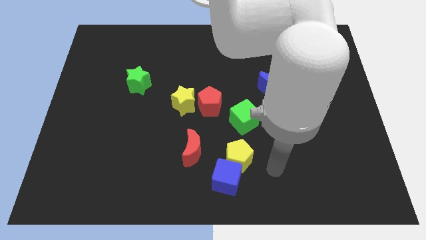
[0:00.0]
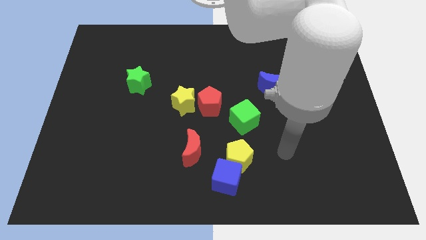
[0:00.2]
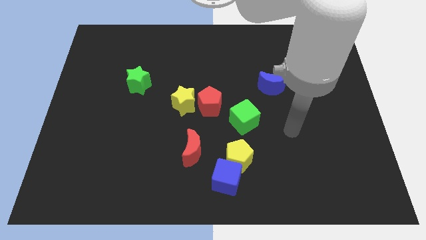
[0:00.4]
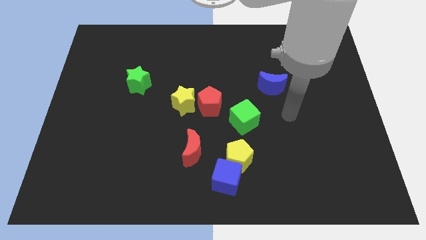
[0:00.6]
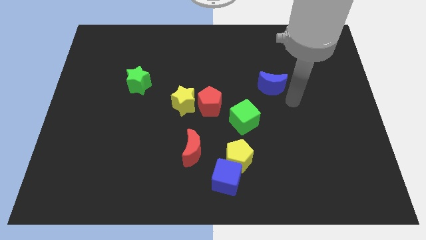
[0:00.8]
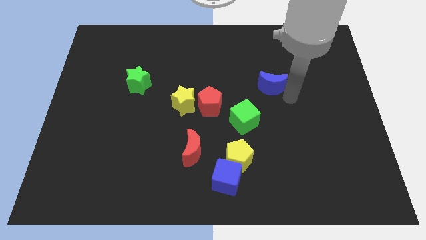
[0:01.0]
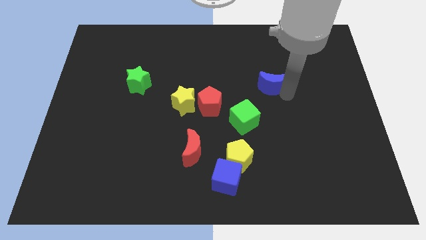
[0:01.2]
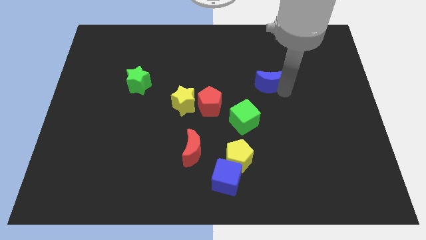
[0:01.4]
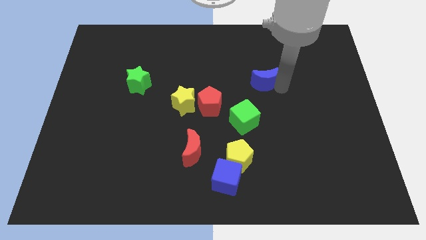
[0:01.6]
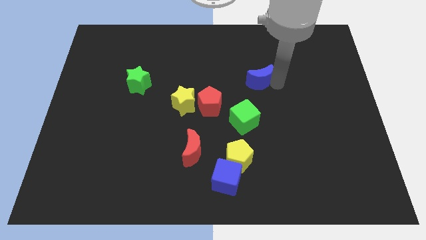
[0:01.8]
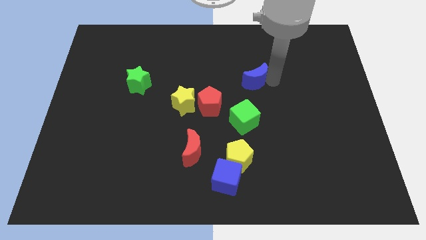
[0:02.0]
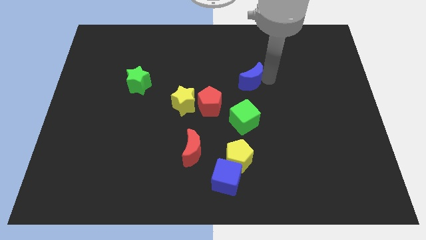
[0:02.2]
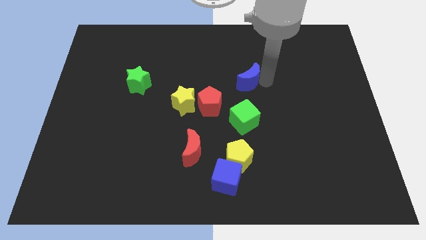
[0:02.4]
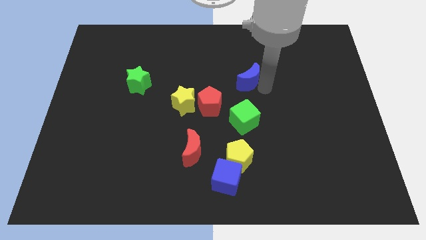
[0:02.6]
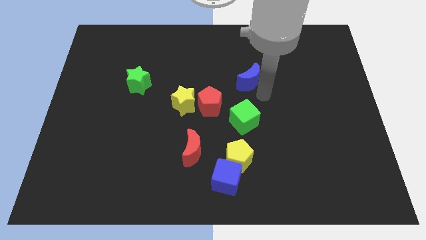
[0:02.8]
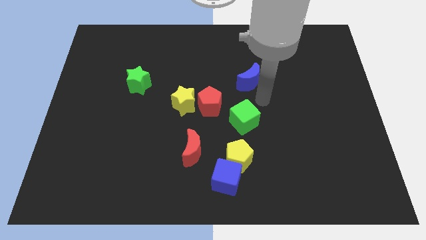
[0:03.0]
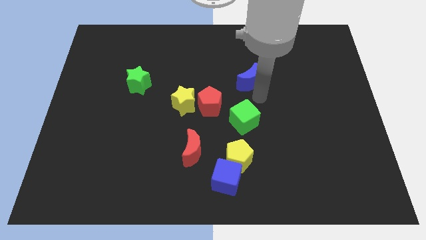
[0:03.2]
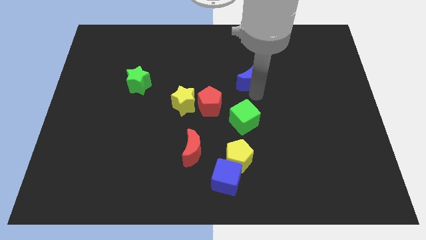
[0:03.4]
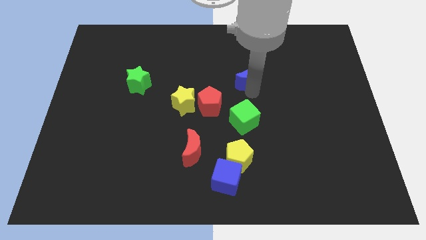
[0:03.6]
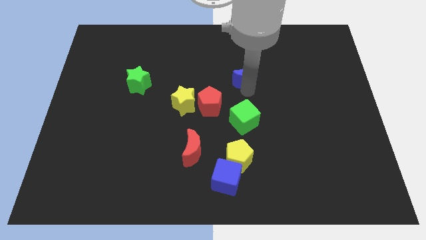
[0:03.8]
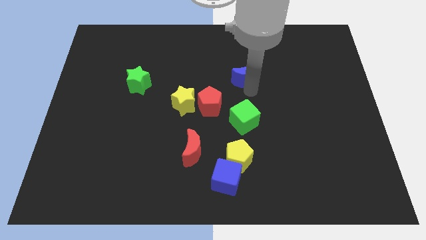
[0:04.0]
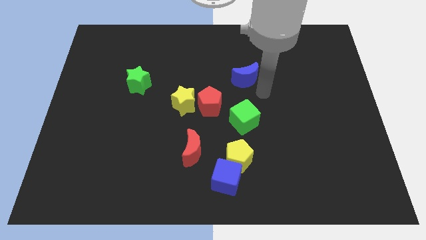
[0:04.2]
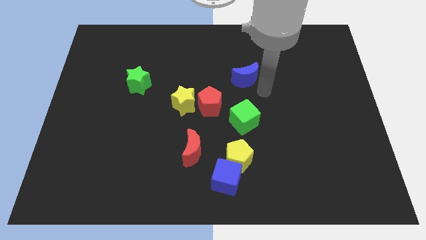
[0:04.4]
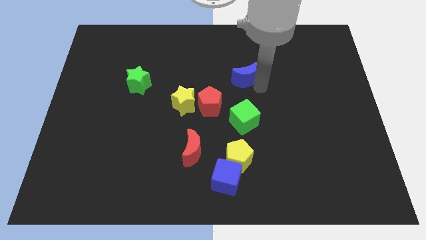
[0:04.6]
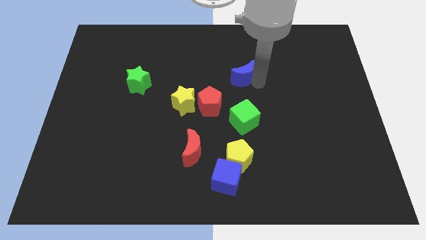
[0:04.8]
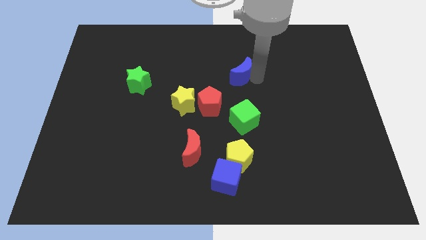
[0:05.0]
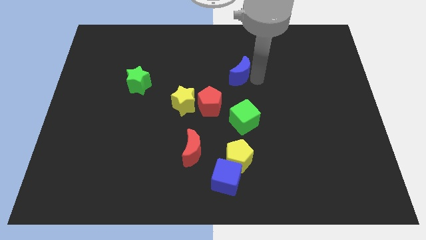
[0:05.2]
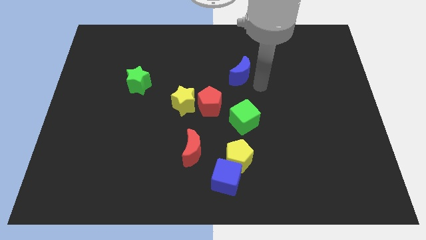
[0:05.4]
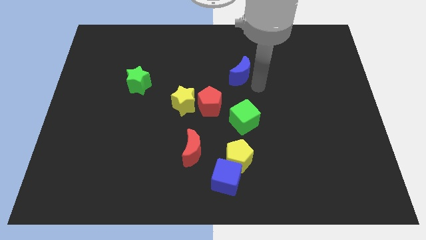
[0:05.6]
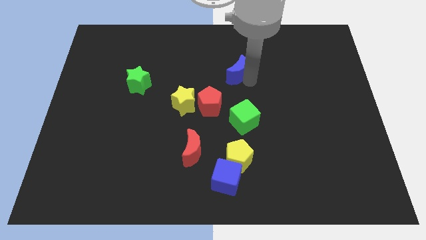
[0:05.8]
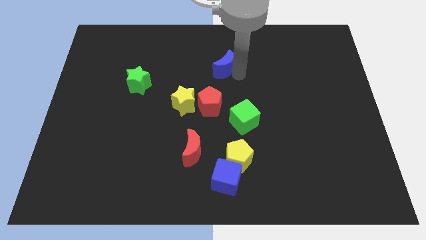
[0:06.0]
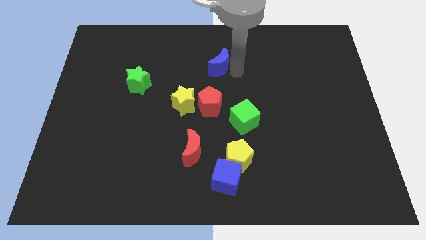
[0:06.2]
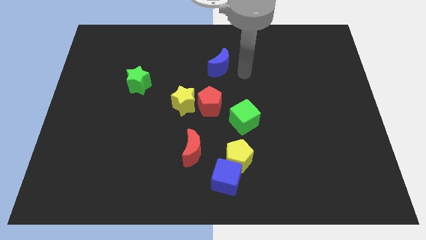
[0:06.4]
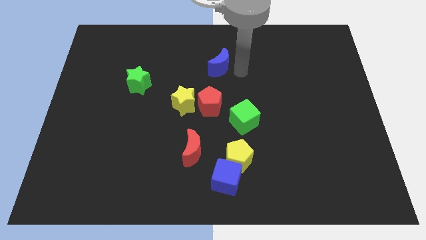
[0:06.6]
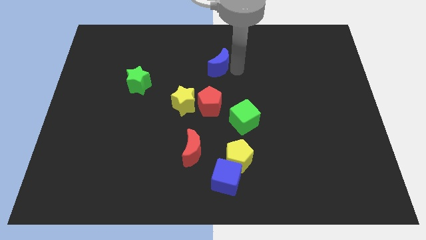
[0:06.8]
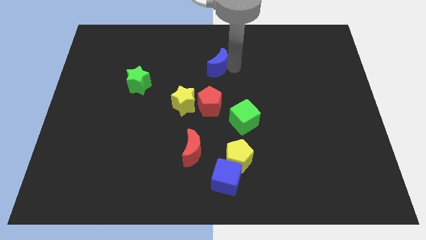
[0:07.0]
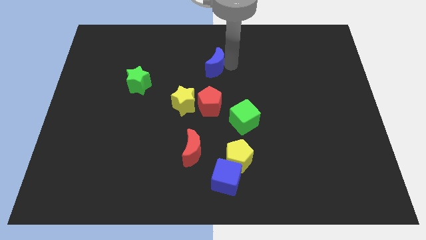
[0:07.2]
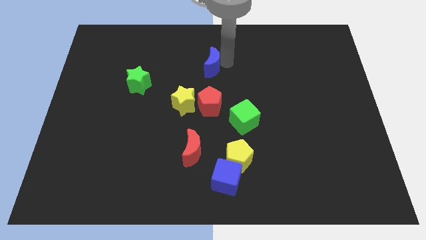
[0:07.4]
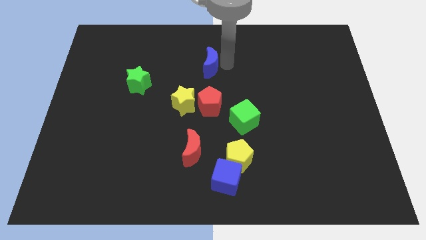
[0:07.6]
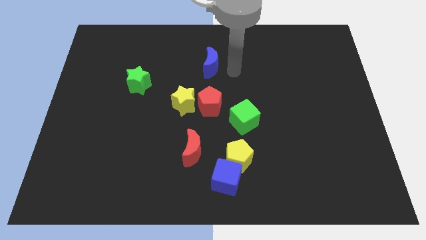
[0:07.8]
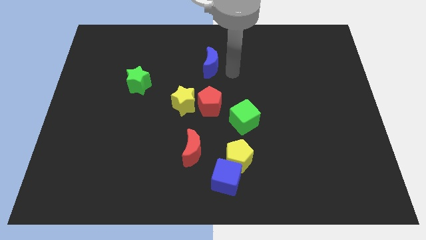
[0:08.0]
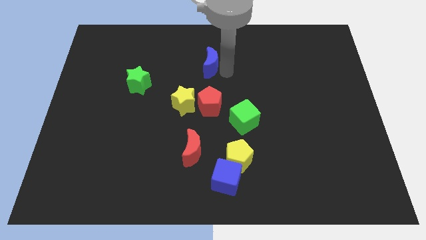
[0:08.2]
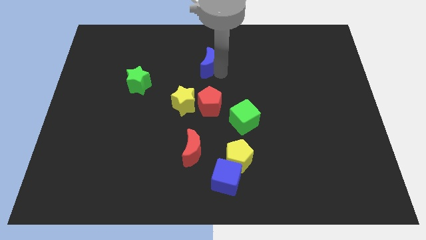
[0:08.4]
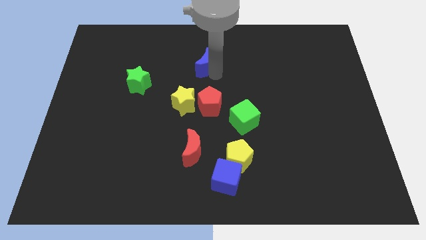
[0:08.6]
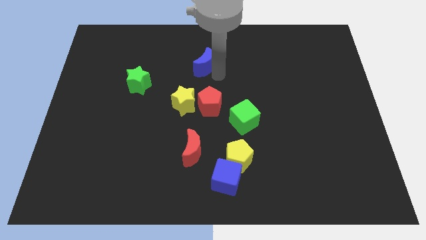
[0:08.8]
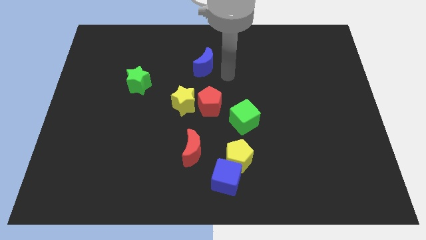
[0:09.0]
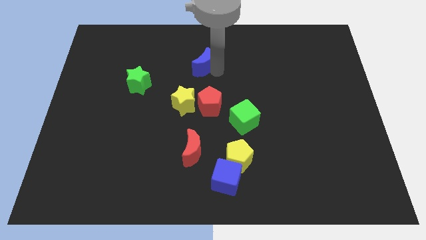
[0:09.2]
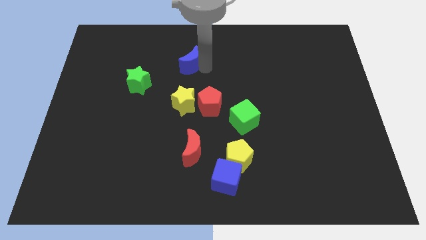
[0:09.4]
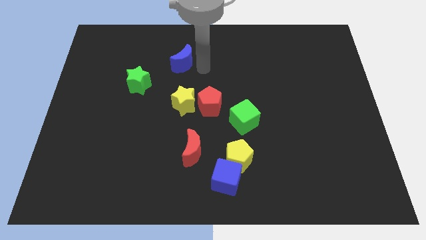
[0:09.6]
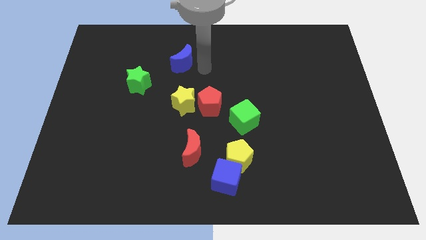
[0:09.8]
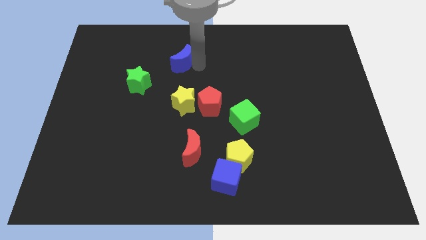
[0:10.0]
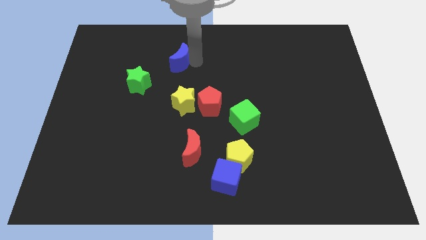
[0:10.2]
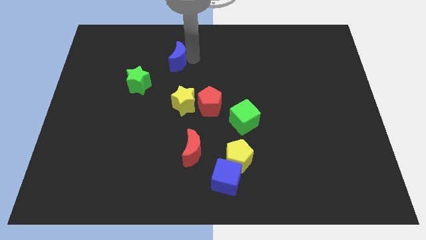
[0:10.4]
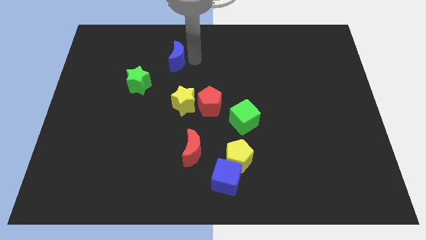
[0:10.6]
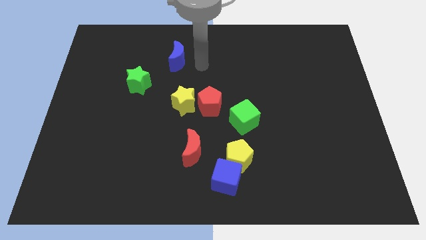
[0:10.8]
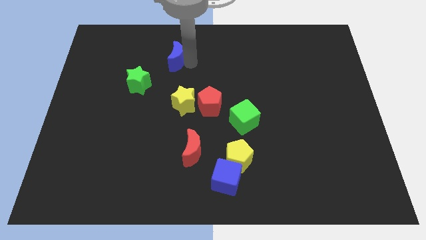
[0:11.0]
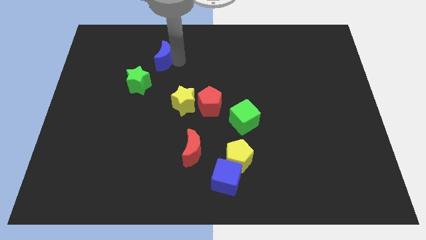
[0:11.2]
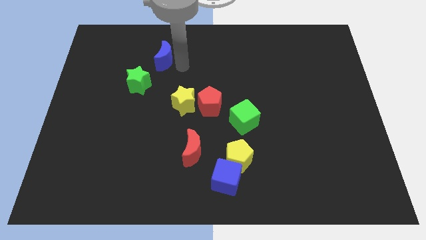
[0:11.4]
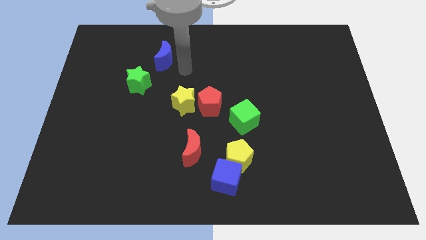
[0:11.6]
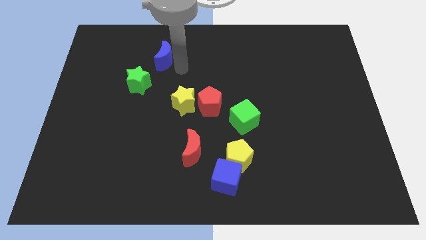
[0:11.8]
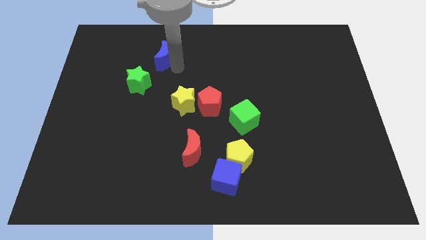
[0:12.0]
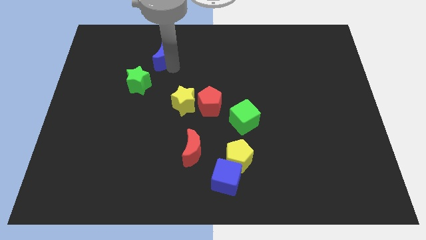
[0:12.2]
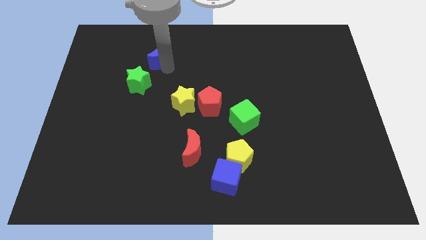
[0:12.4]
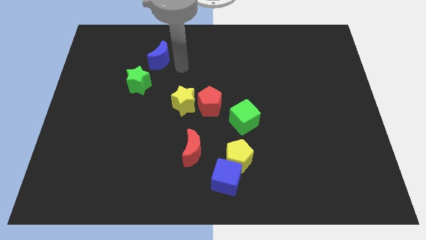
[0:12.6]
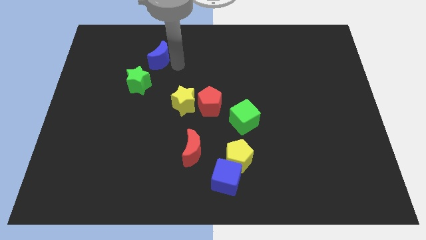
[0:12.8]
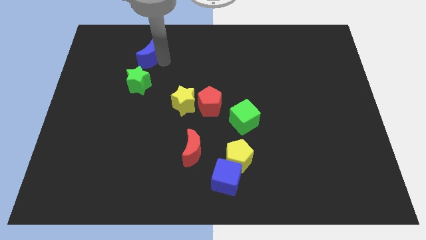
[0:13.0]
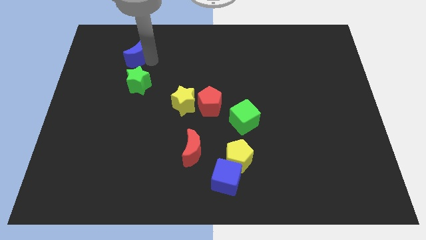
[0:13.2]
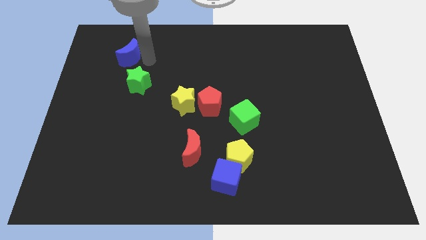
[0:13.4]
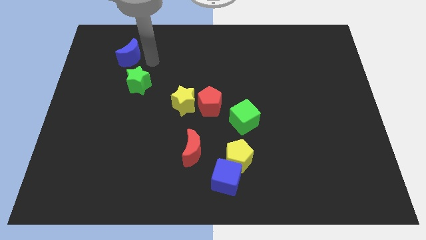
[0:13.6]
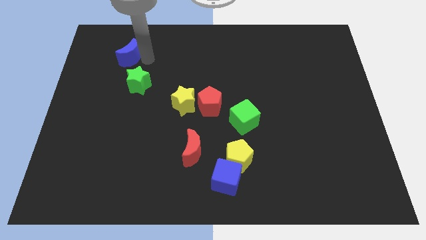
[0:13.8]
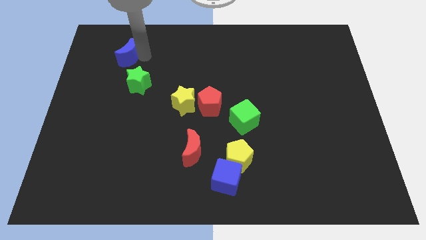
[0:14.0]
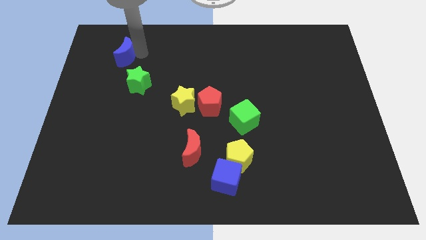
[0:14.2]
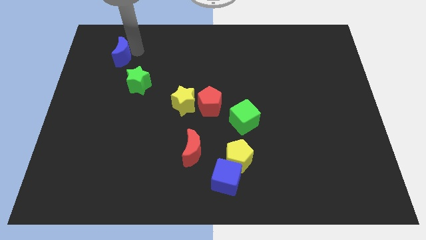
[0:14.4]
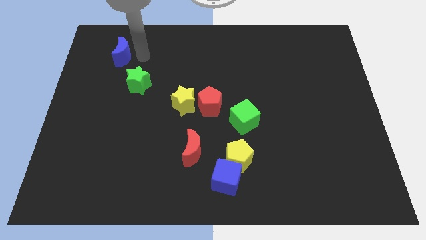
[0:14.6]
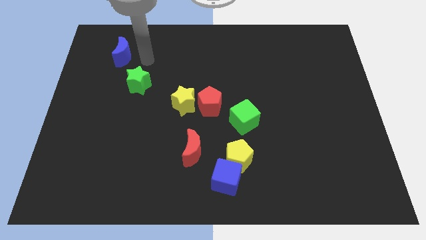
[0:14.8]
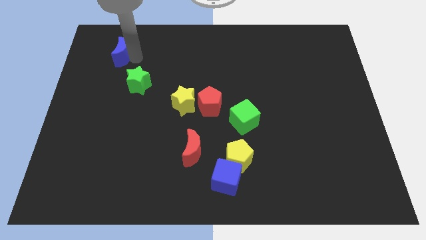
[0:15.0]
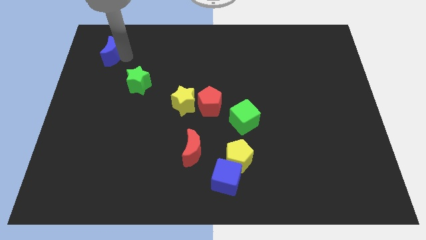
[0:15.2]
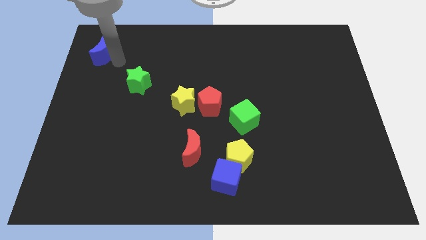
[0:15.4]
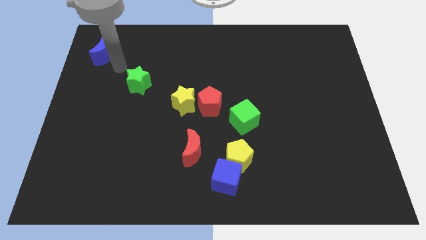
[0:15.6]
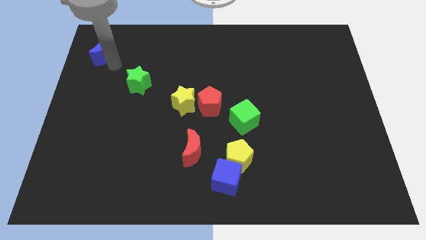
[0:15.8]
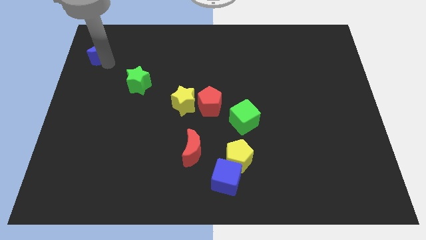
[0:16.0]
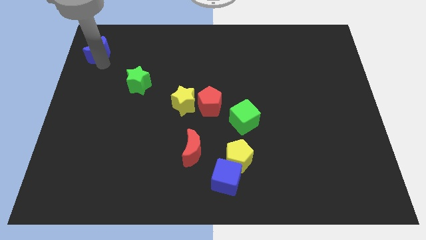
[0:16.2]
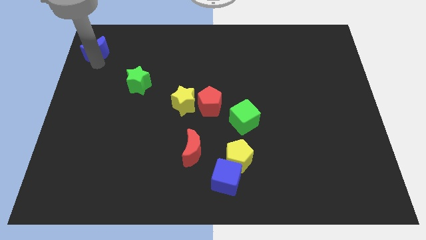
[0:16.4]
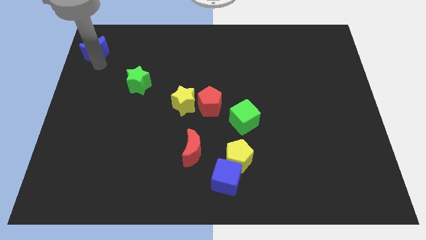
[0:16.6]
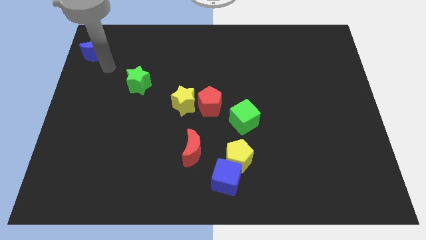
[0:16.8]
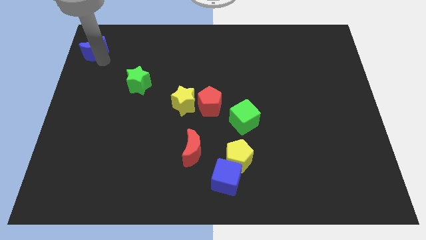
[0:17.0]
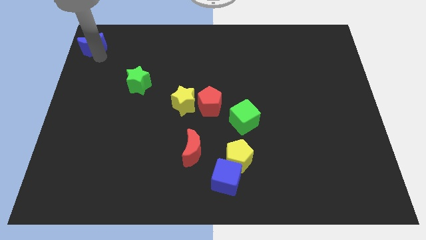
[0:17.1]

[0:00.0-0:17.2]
push the blue moon to the top left
